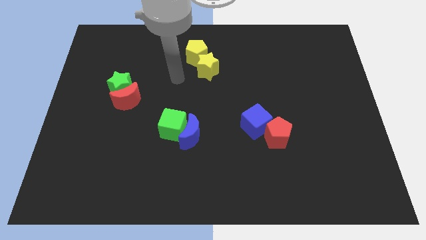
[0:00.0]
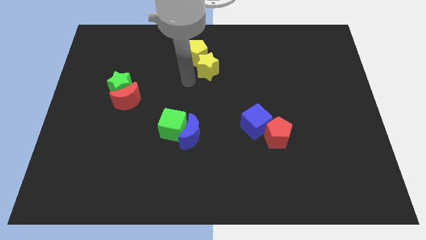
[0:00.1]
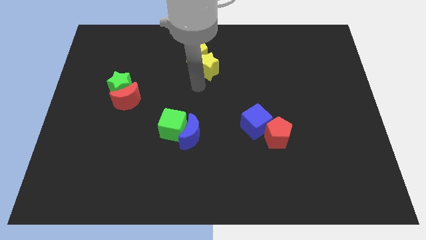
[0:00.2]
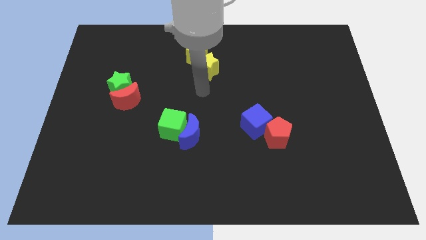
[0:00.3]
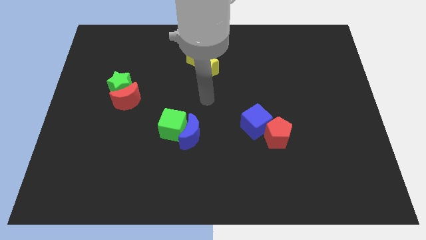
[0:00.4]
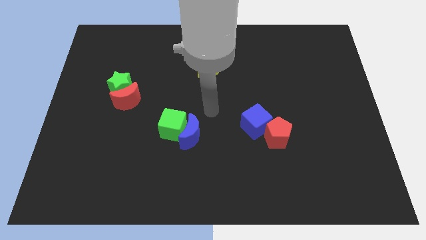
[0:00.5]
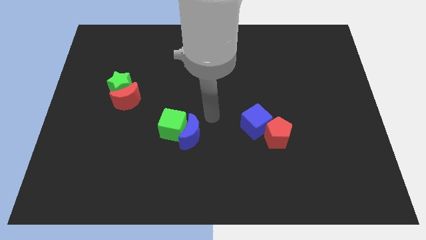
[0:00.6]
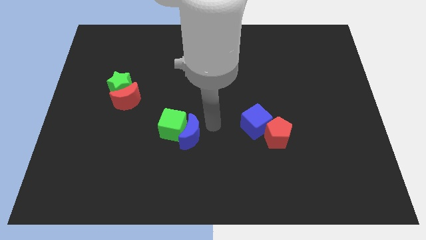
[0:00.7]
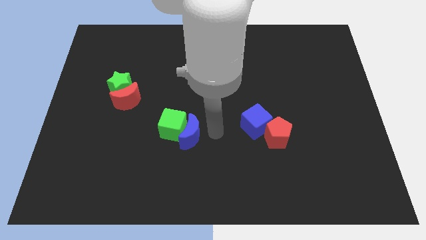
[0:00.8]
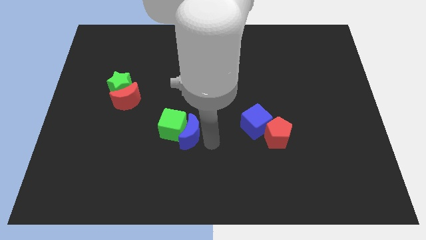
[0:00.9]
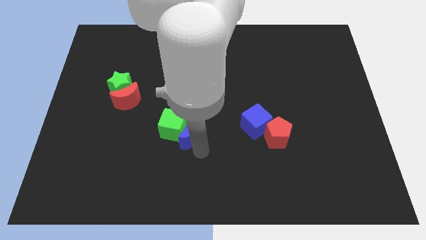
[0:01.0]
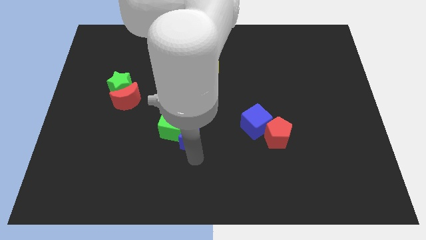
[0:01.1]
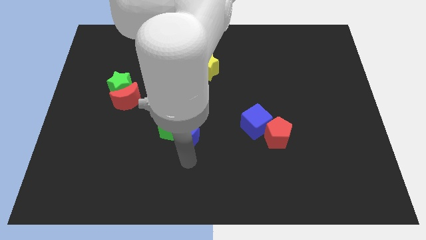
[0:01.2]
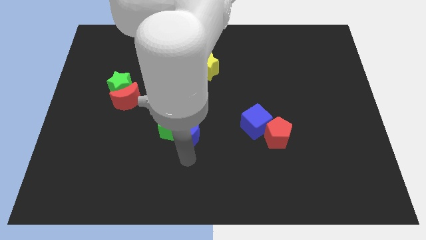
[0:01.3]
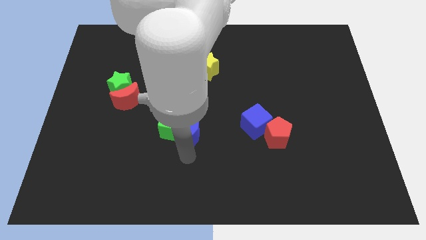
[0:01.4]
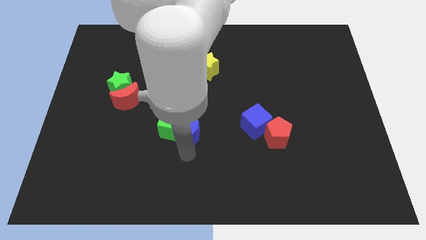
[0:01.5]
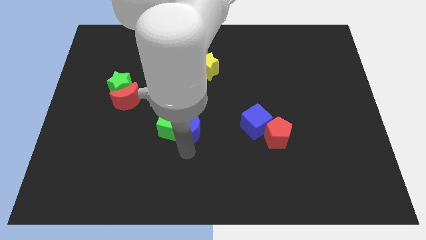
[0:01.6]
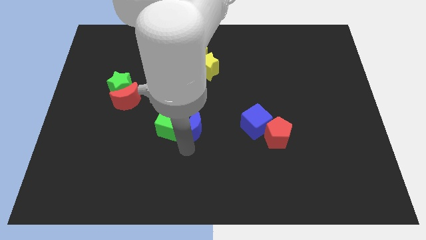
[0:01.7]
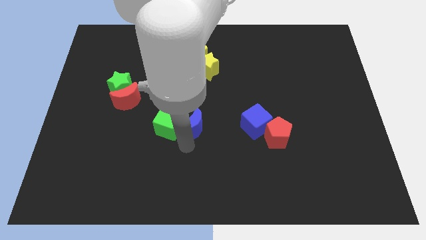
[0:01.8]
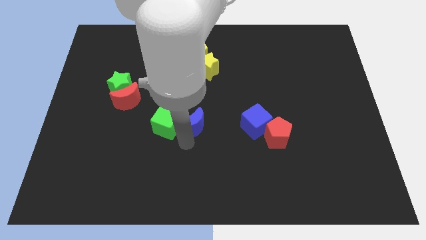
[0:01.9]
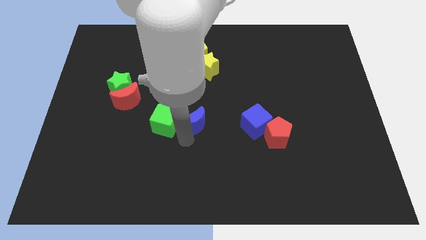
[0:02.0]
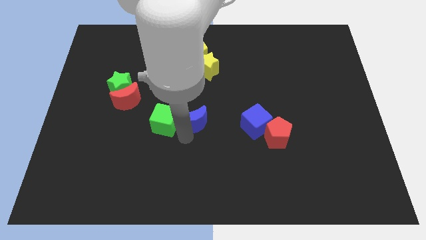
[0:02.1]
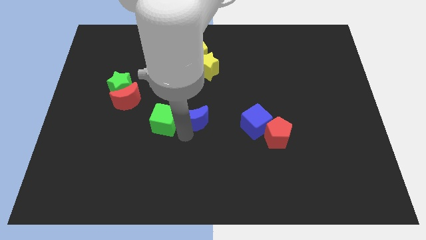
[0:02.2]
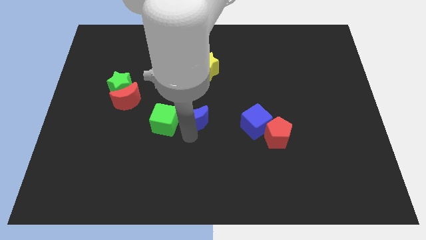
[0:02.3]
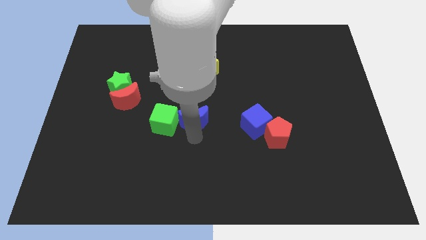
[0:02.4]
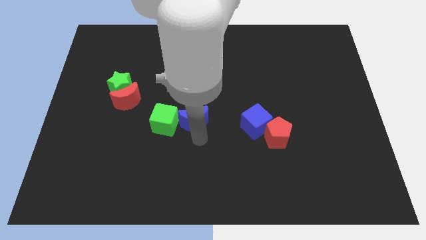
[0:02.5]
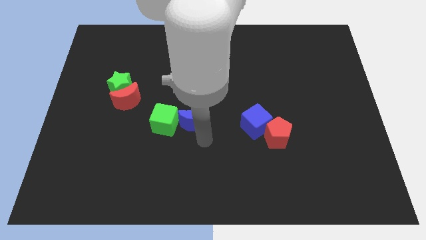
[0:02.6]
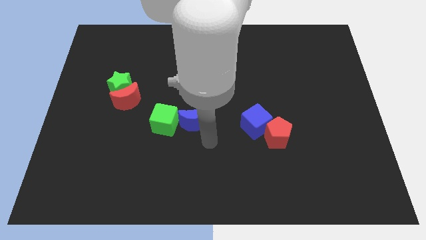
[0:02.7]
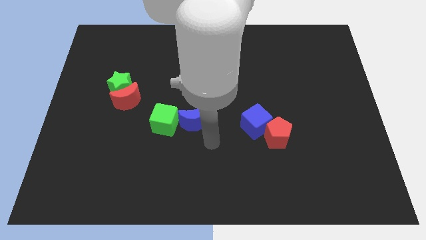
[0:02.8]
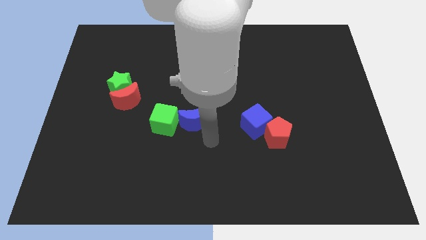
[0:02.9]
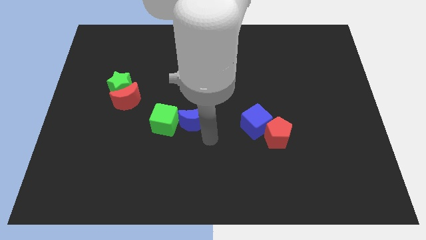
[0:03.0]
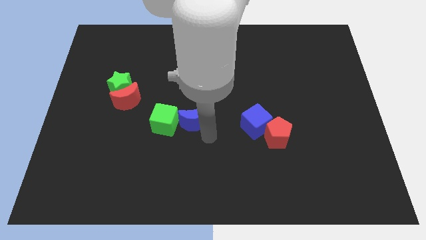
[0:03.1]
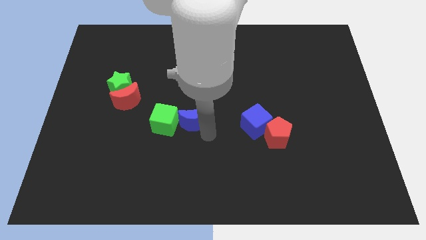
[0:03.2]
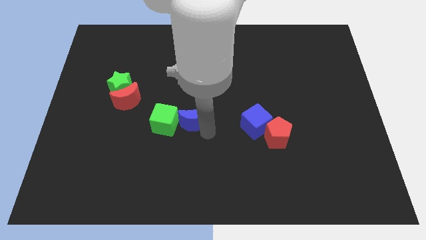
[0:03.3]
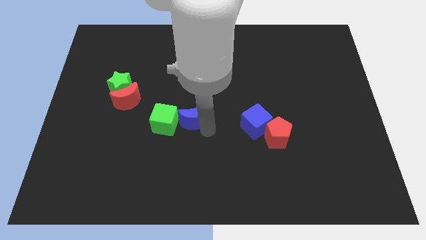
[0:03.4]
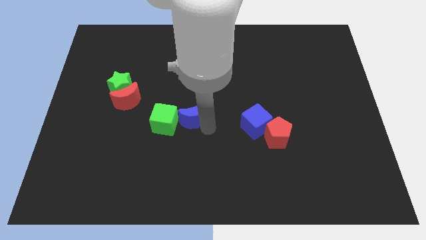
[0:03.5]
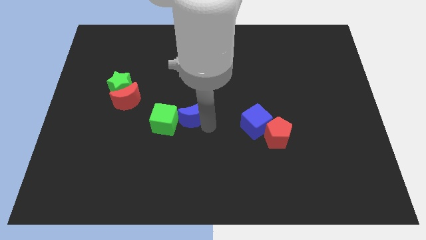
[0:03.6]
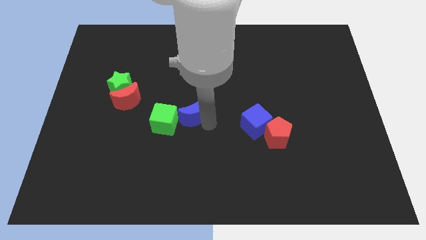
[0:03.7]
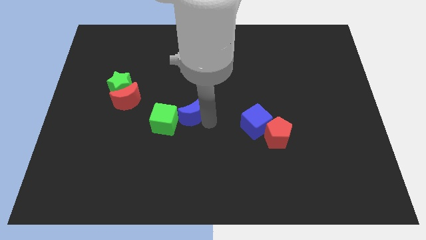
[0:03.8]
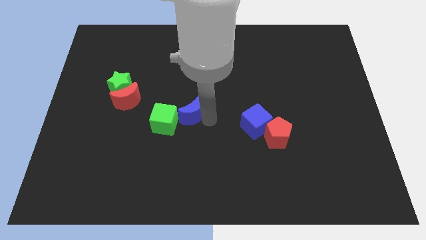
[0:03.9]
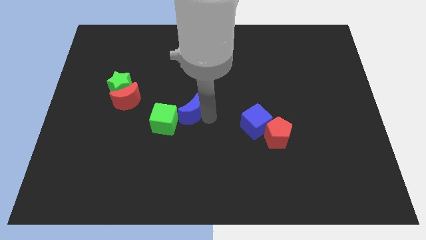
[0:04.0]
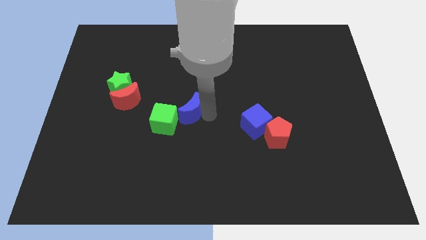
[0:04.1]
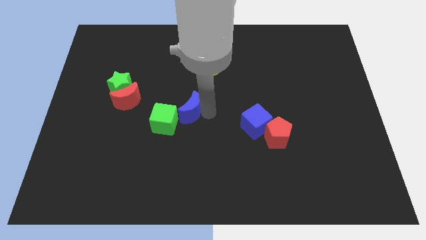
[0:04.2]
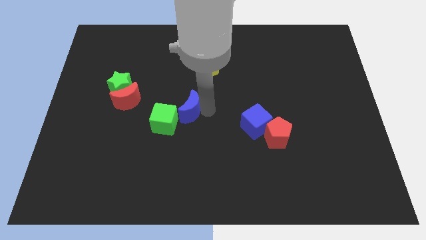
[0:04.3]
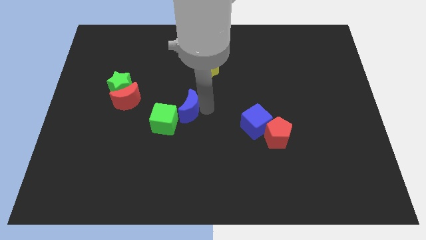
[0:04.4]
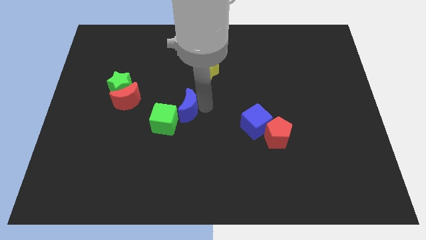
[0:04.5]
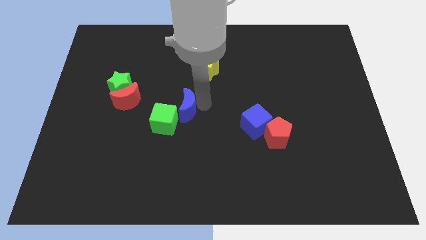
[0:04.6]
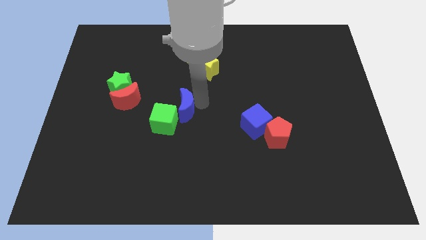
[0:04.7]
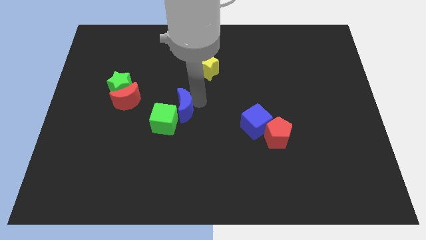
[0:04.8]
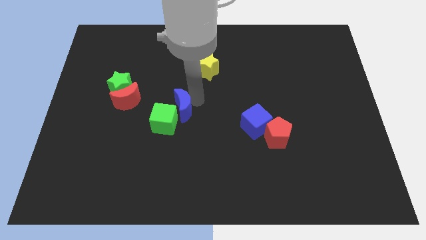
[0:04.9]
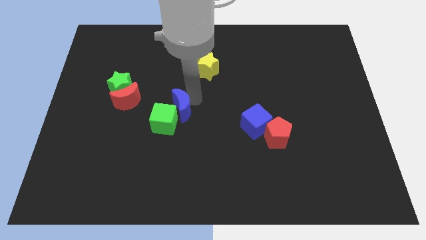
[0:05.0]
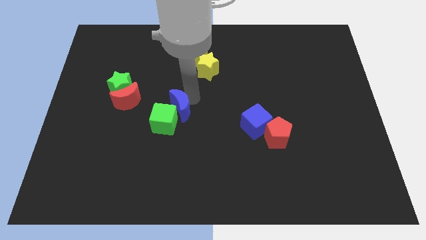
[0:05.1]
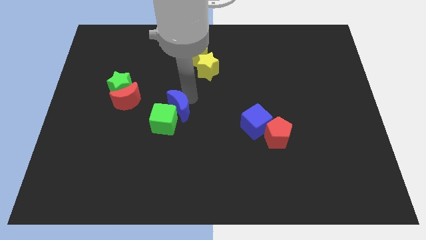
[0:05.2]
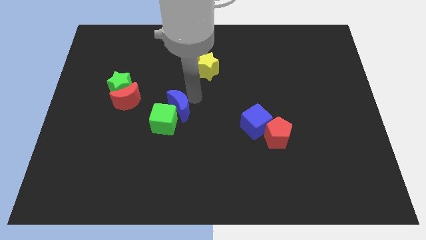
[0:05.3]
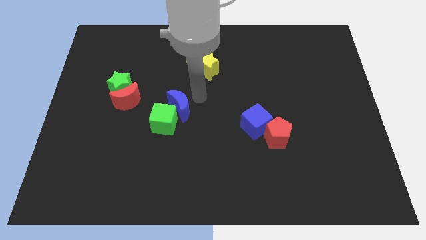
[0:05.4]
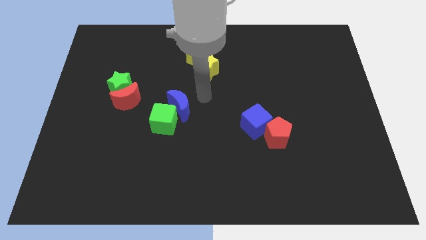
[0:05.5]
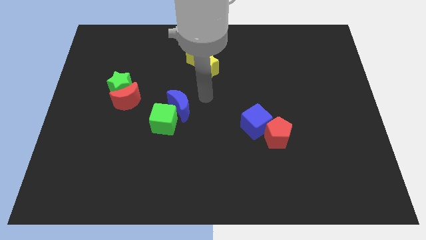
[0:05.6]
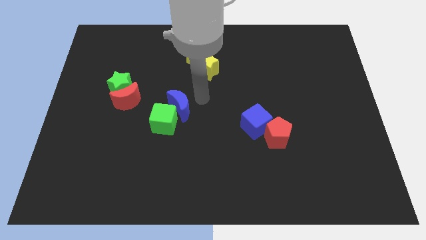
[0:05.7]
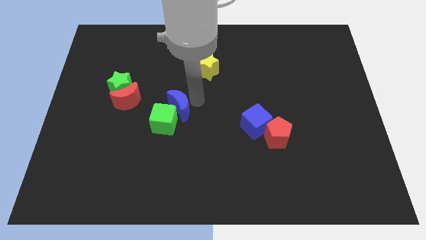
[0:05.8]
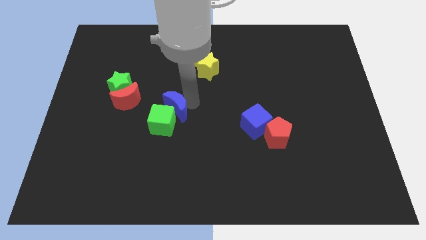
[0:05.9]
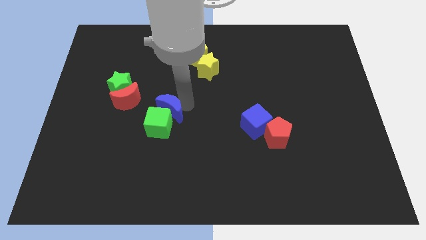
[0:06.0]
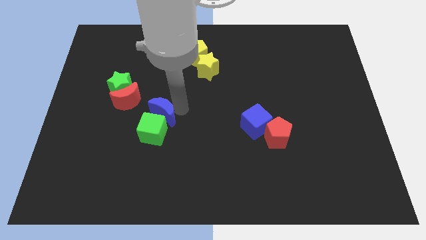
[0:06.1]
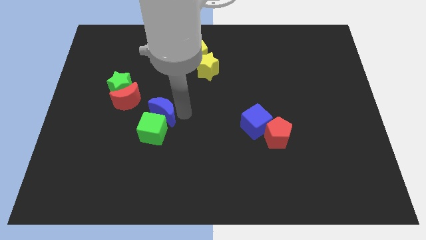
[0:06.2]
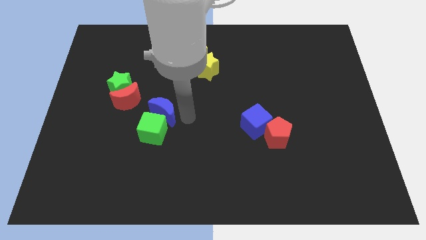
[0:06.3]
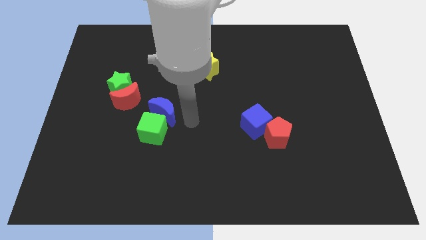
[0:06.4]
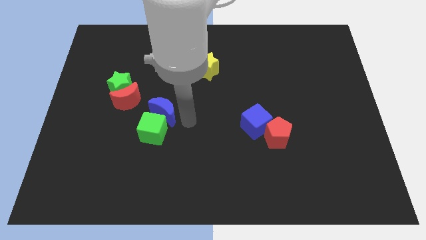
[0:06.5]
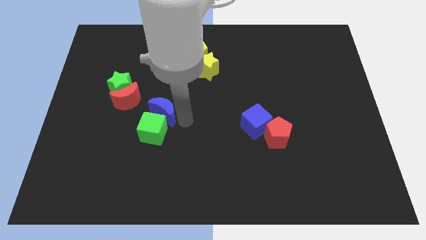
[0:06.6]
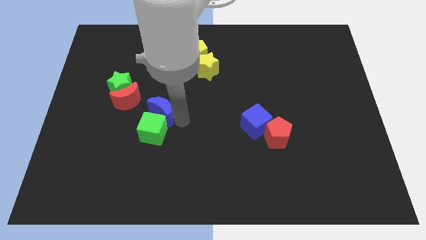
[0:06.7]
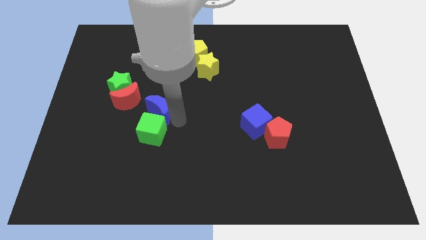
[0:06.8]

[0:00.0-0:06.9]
push the blue moon diagonally down and to the right of the green star
